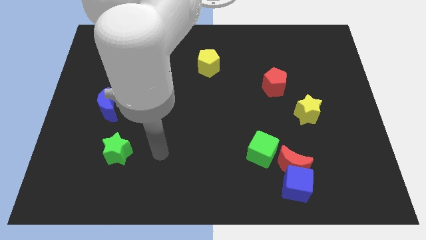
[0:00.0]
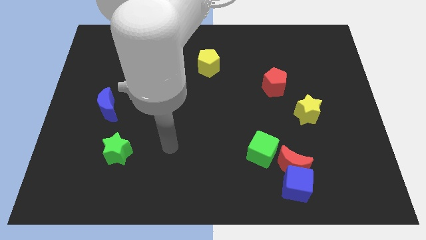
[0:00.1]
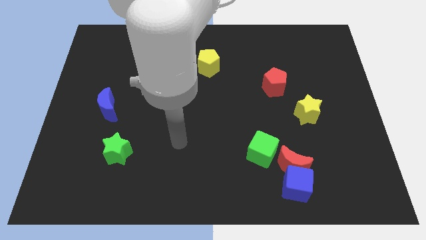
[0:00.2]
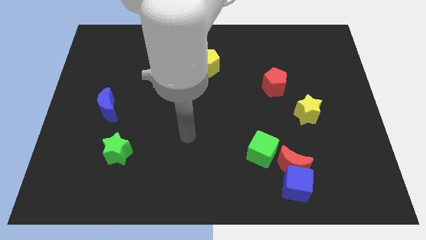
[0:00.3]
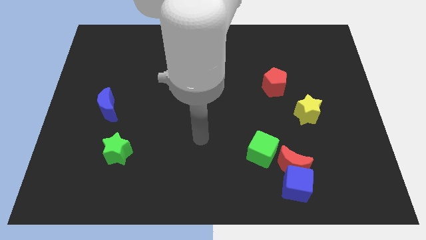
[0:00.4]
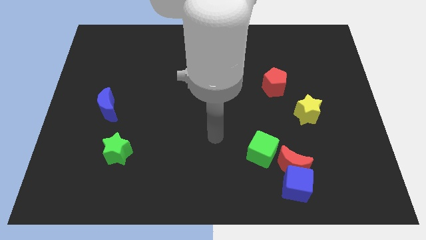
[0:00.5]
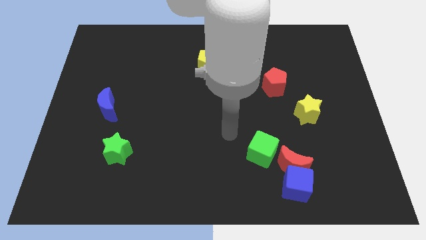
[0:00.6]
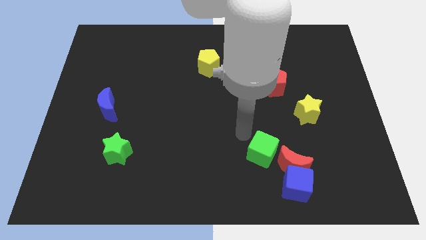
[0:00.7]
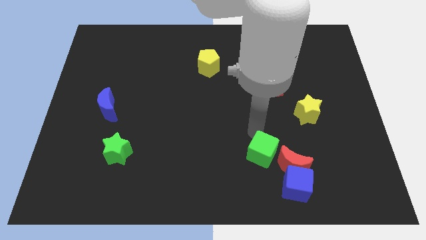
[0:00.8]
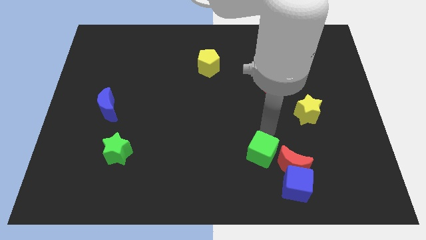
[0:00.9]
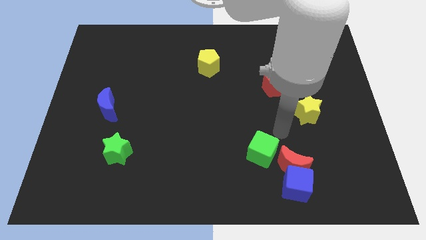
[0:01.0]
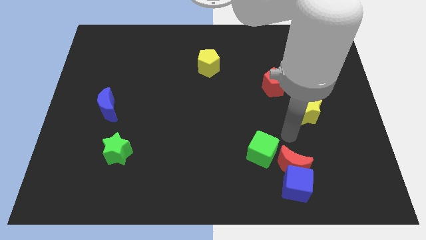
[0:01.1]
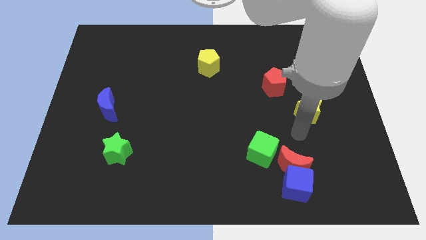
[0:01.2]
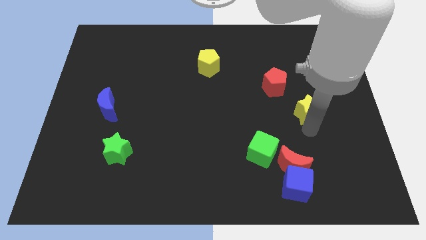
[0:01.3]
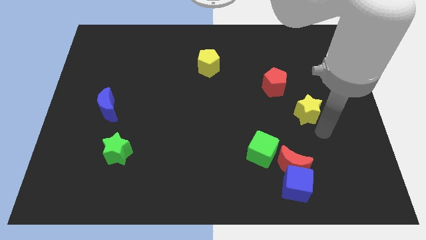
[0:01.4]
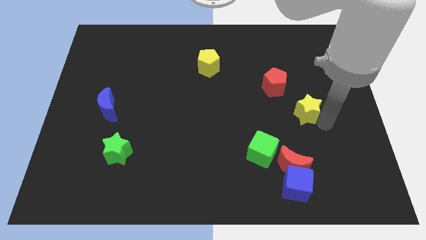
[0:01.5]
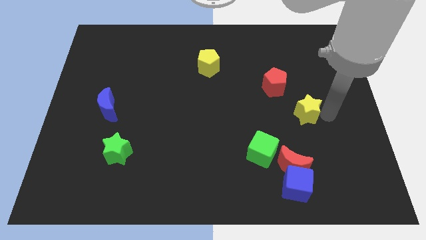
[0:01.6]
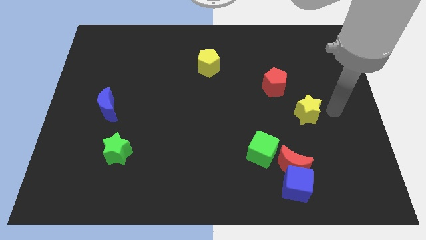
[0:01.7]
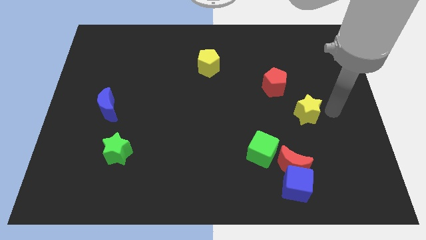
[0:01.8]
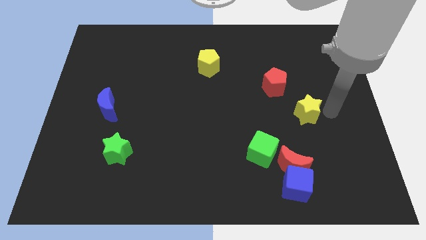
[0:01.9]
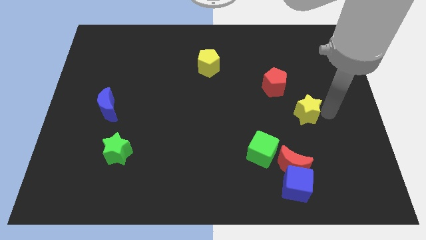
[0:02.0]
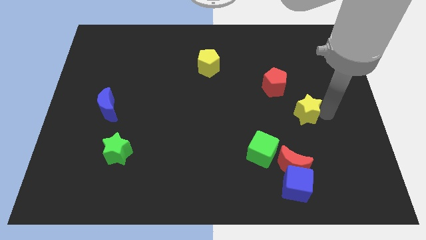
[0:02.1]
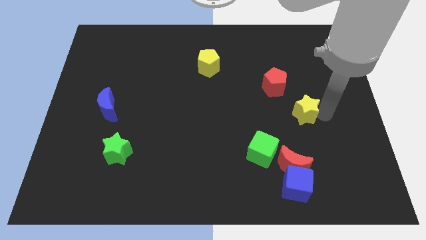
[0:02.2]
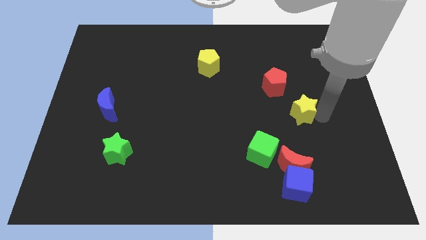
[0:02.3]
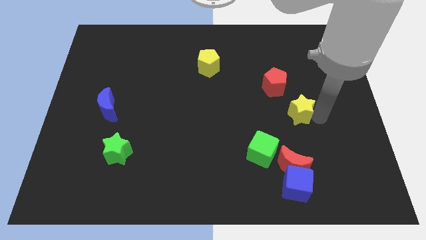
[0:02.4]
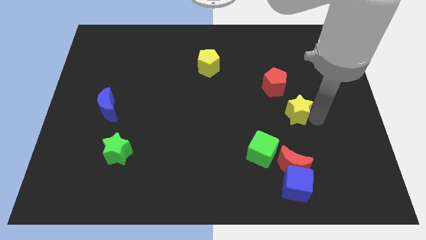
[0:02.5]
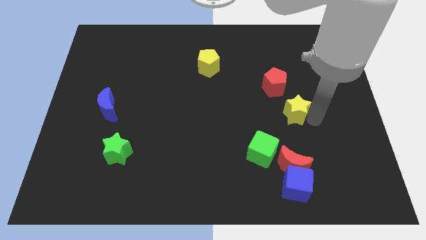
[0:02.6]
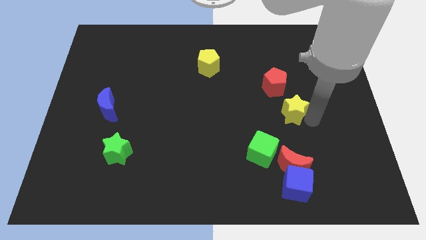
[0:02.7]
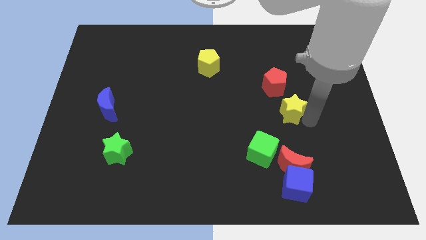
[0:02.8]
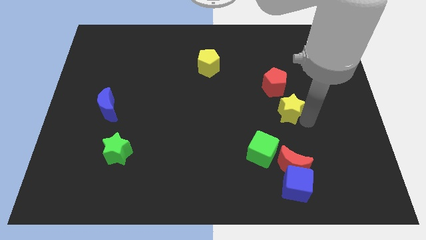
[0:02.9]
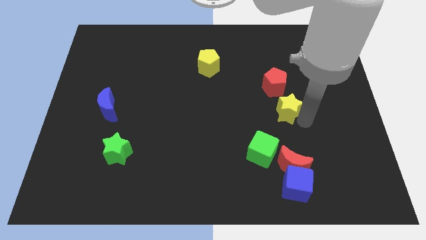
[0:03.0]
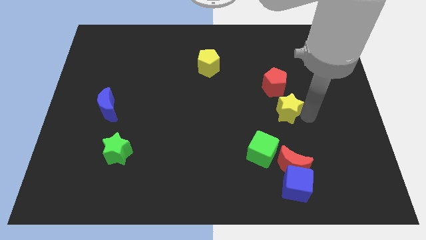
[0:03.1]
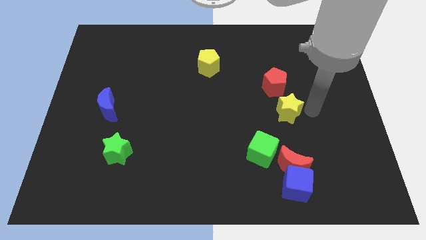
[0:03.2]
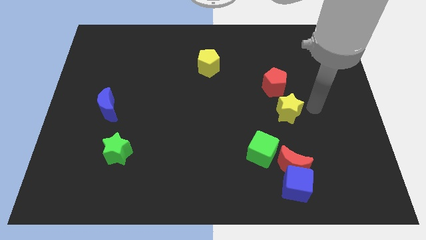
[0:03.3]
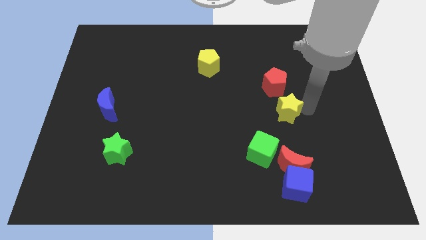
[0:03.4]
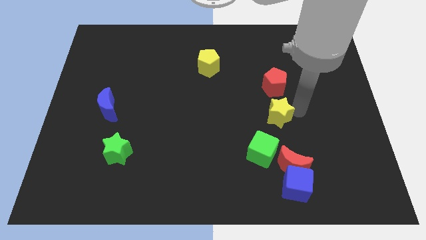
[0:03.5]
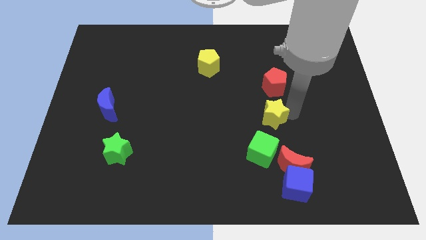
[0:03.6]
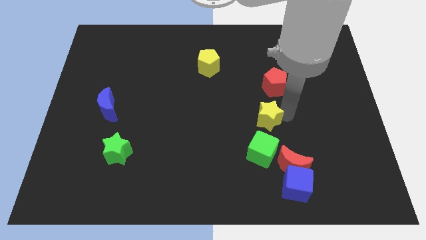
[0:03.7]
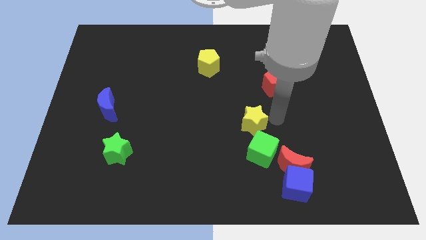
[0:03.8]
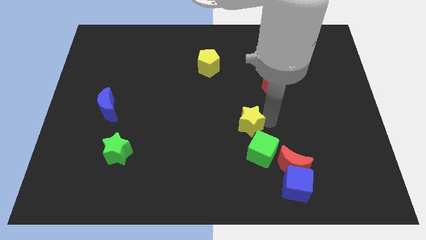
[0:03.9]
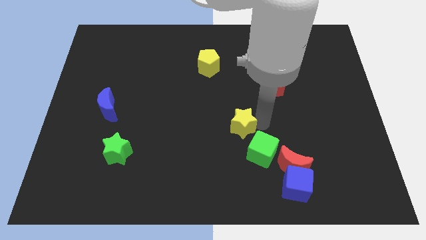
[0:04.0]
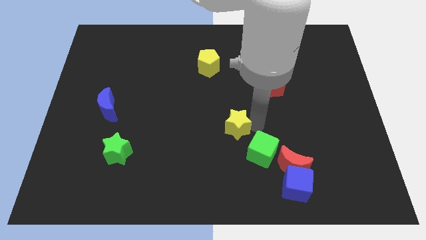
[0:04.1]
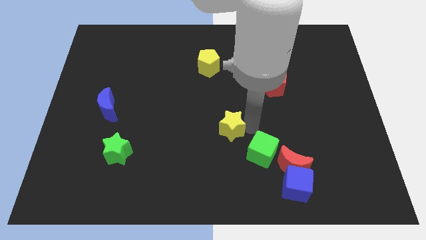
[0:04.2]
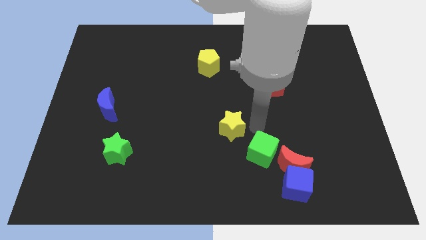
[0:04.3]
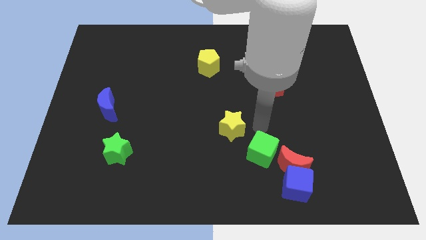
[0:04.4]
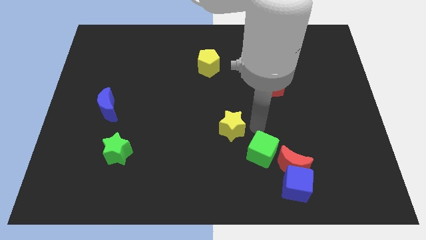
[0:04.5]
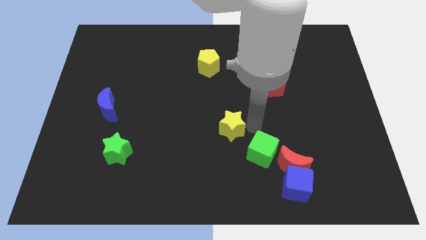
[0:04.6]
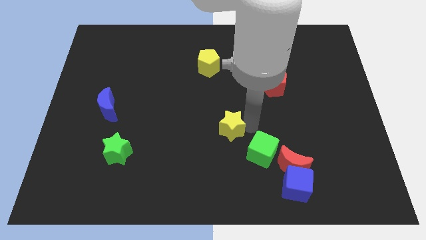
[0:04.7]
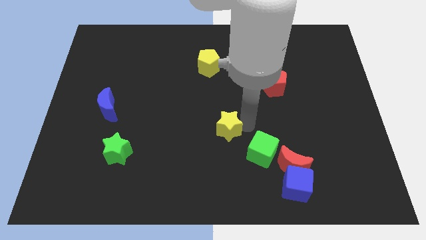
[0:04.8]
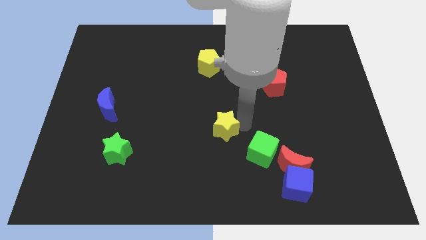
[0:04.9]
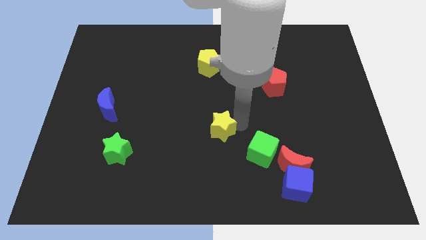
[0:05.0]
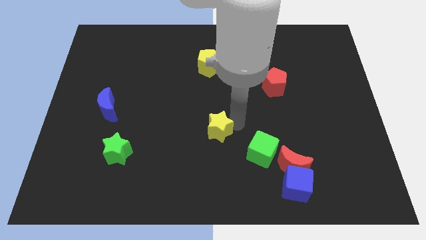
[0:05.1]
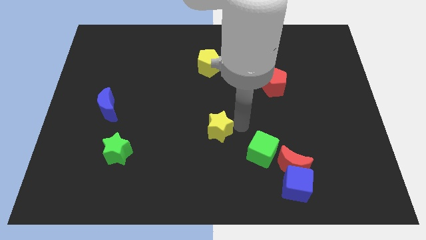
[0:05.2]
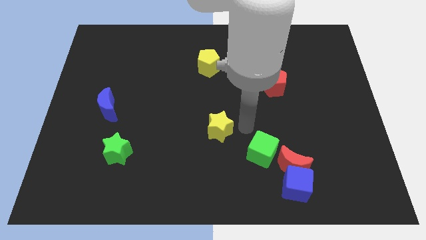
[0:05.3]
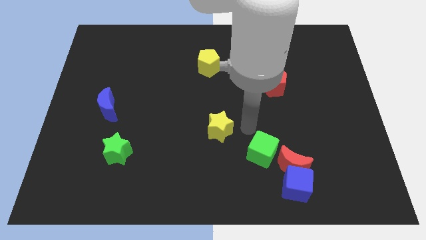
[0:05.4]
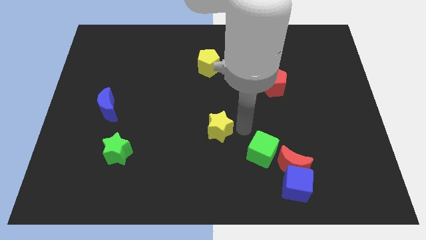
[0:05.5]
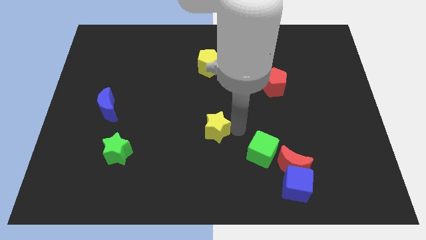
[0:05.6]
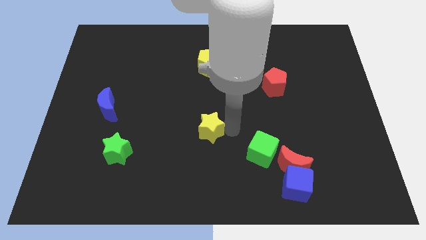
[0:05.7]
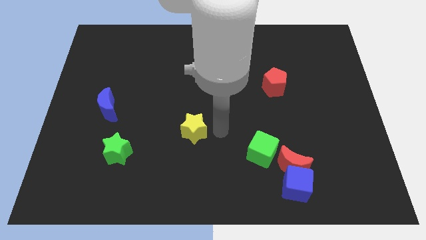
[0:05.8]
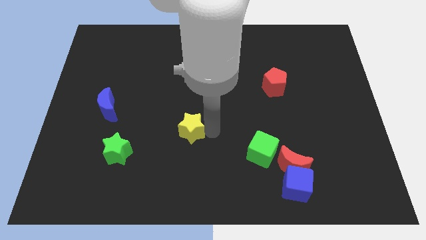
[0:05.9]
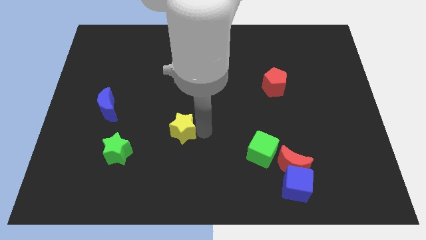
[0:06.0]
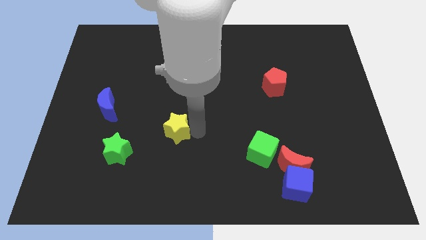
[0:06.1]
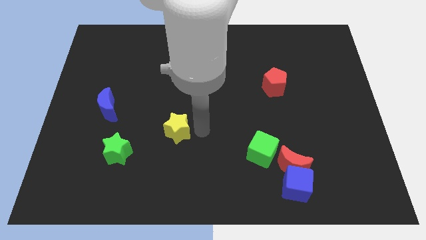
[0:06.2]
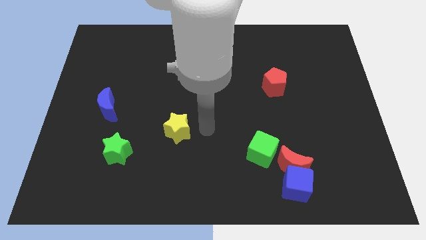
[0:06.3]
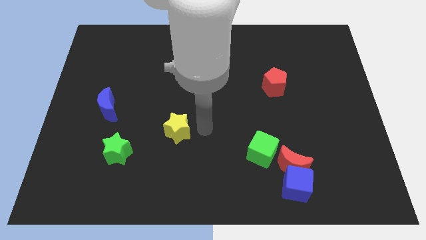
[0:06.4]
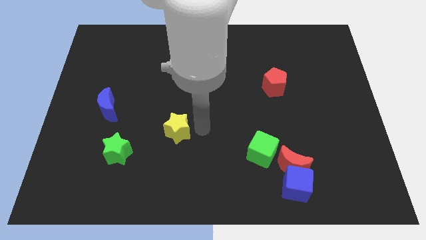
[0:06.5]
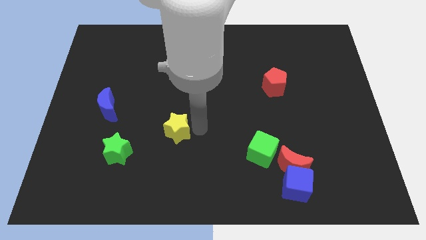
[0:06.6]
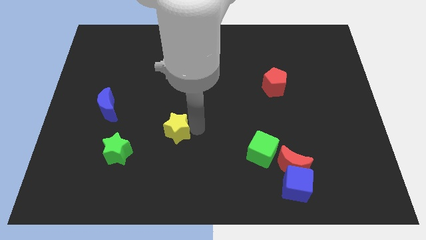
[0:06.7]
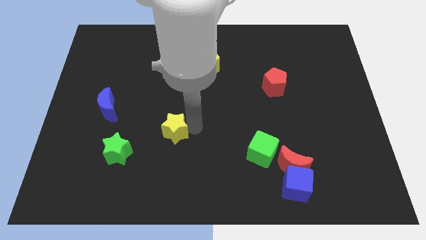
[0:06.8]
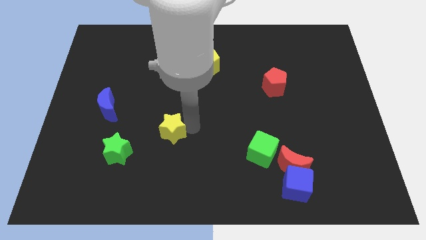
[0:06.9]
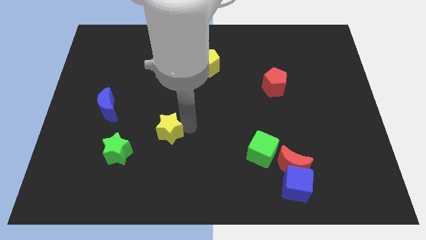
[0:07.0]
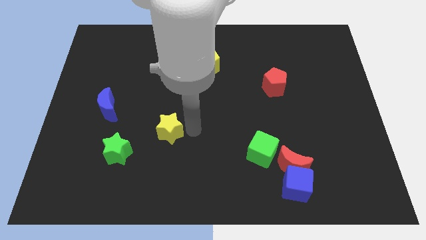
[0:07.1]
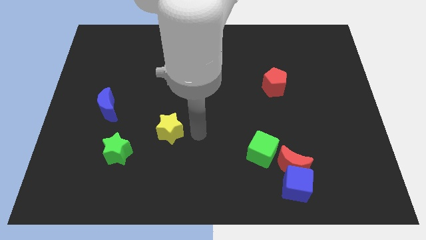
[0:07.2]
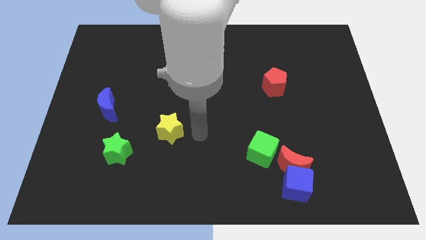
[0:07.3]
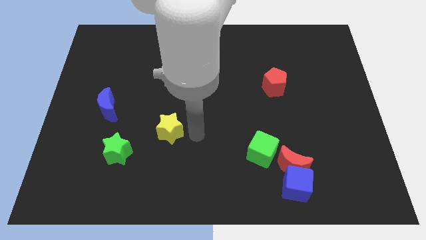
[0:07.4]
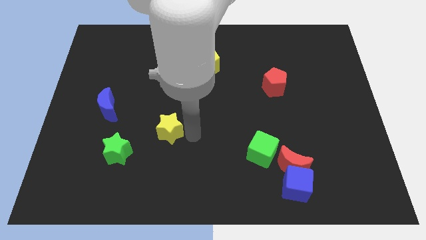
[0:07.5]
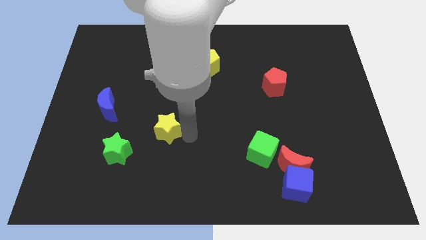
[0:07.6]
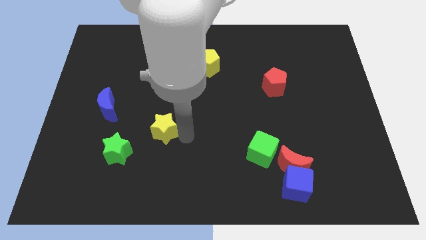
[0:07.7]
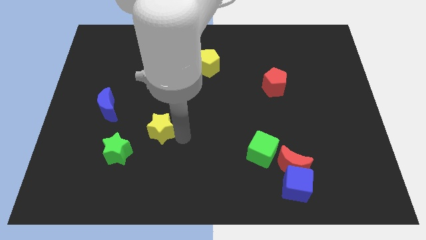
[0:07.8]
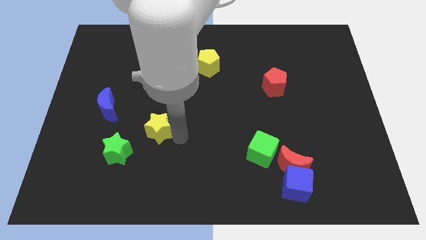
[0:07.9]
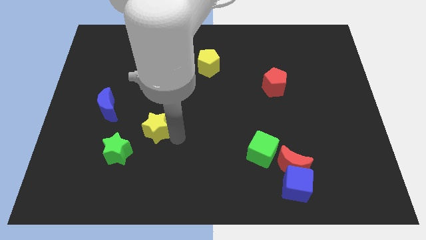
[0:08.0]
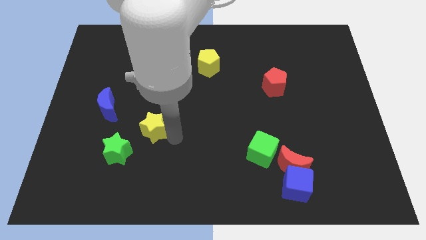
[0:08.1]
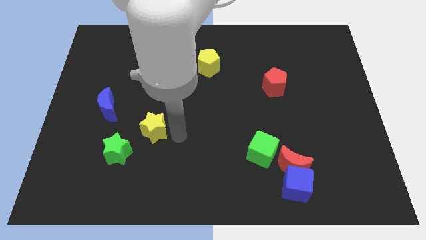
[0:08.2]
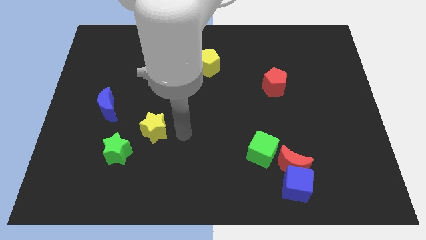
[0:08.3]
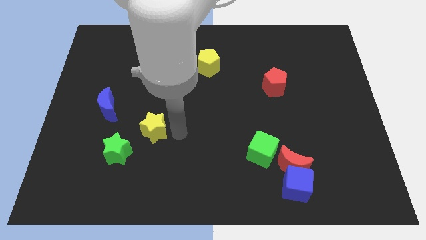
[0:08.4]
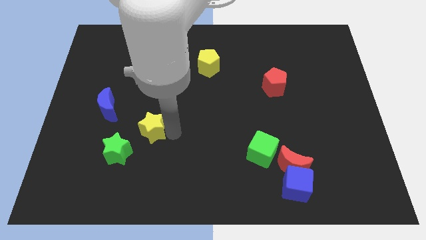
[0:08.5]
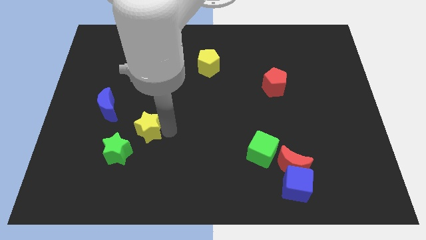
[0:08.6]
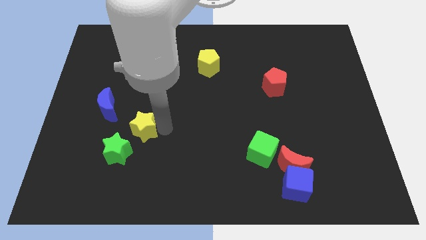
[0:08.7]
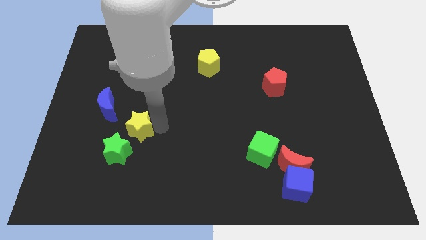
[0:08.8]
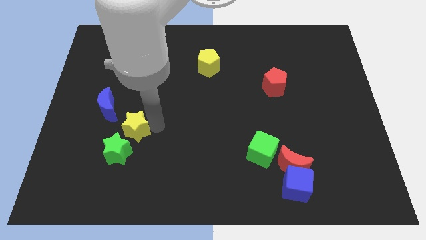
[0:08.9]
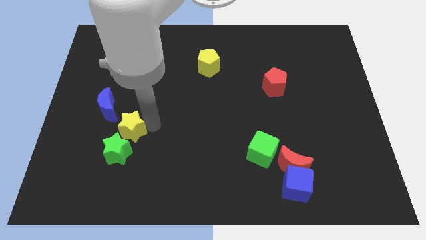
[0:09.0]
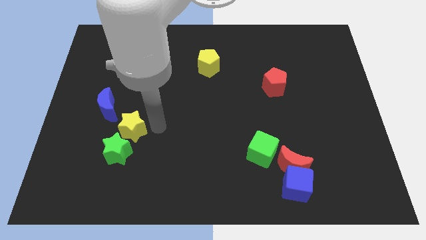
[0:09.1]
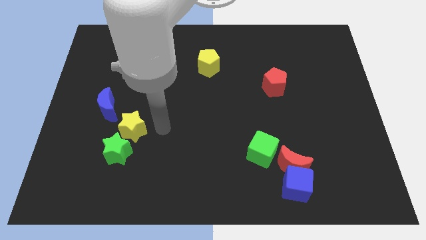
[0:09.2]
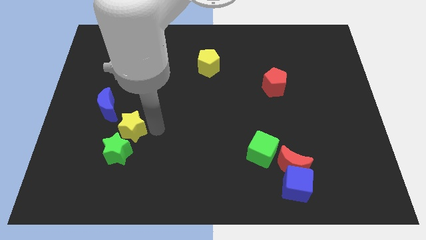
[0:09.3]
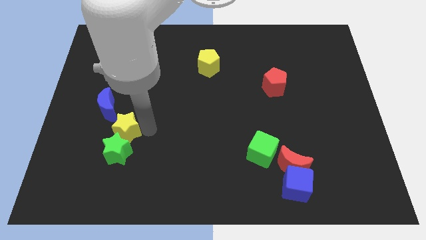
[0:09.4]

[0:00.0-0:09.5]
put the yellow star diagonally up and to the left of the green star
